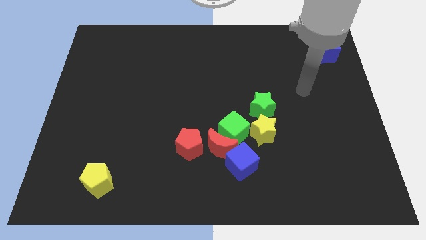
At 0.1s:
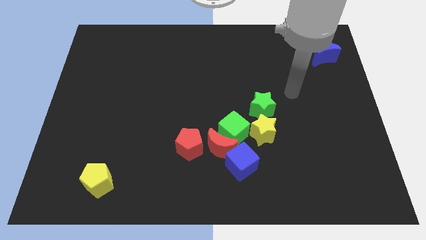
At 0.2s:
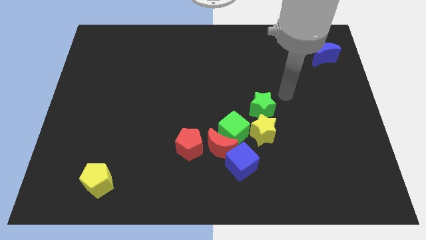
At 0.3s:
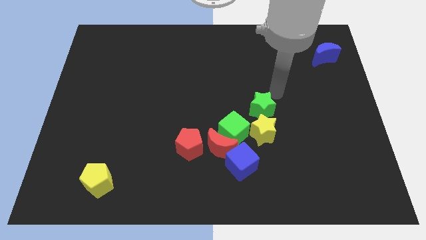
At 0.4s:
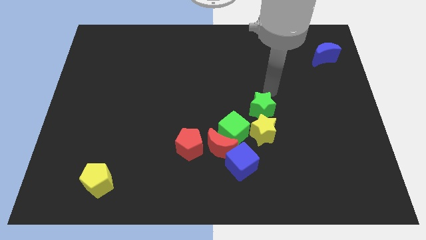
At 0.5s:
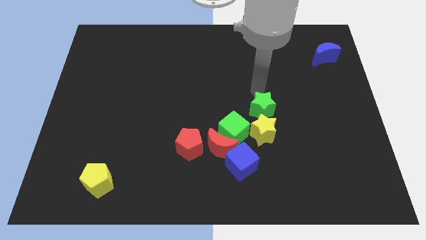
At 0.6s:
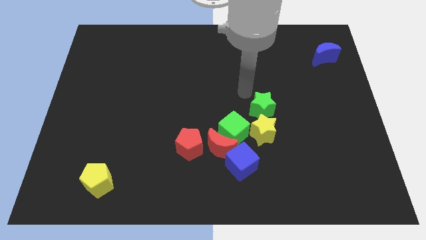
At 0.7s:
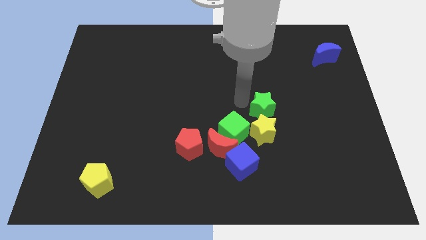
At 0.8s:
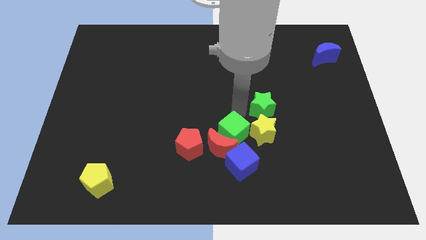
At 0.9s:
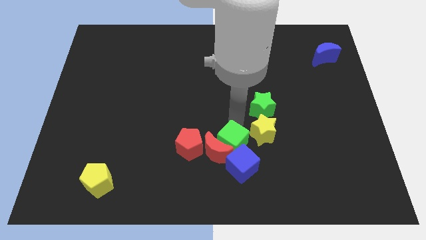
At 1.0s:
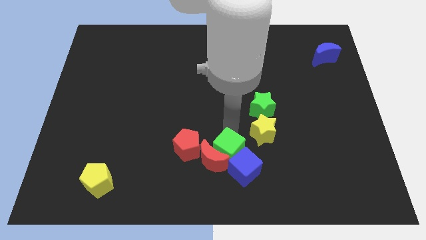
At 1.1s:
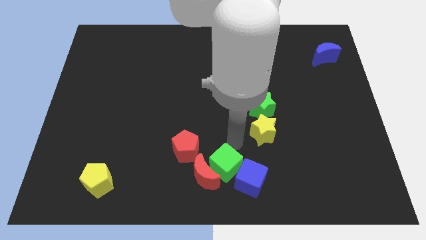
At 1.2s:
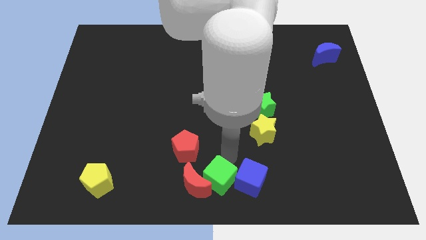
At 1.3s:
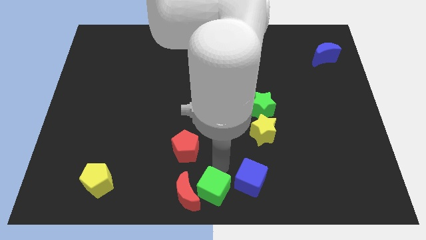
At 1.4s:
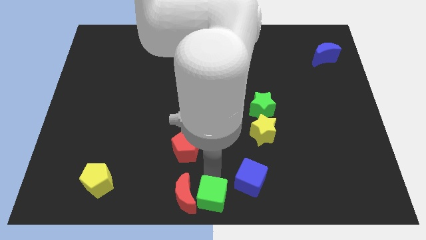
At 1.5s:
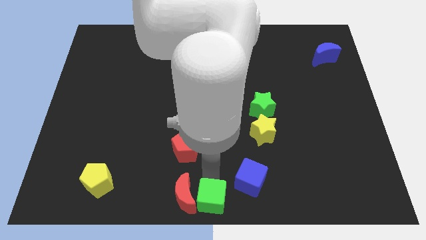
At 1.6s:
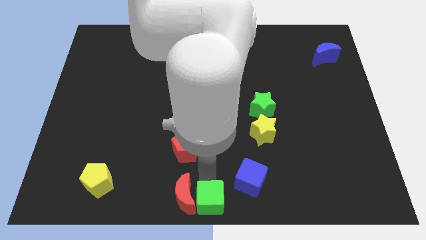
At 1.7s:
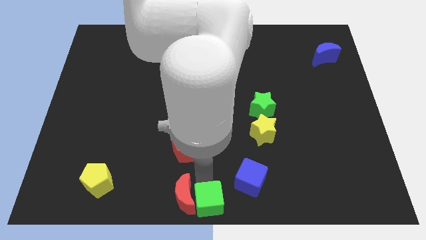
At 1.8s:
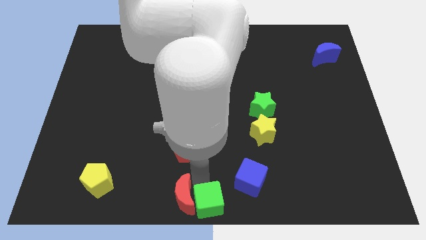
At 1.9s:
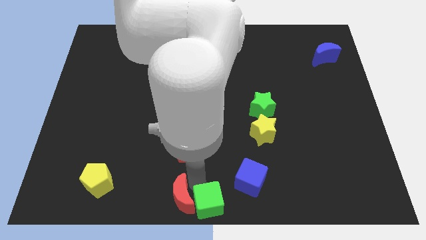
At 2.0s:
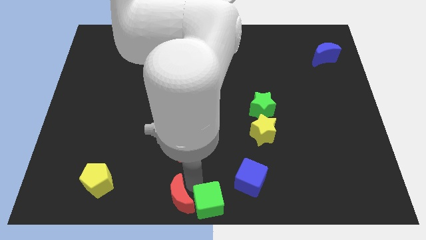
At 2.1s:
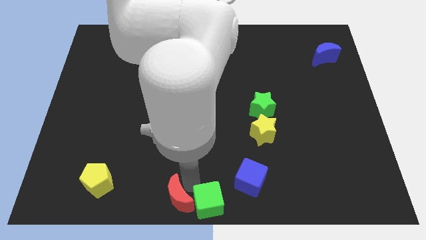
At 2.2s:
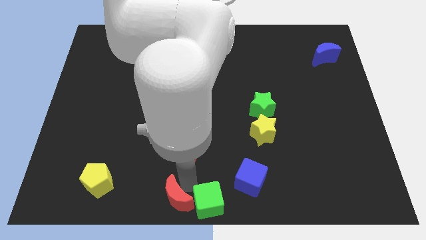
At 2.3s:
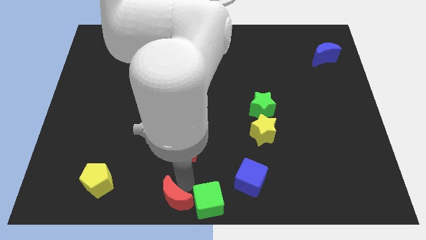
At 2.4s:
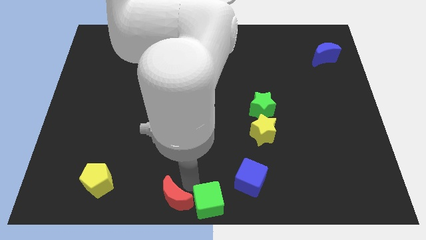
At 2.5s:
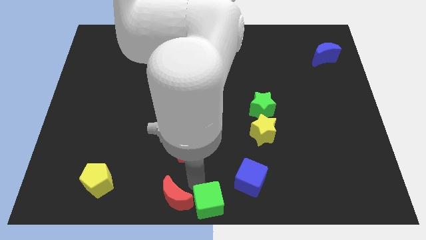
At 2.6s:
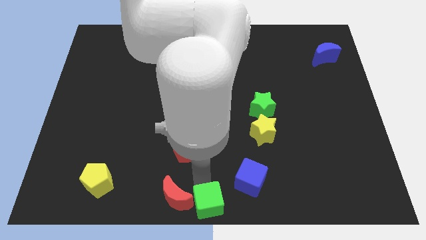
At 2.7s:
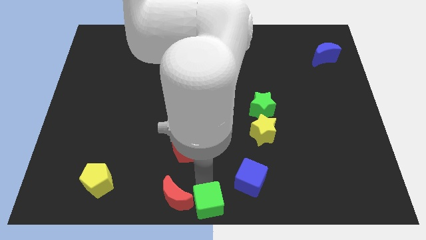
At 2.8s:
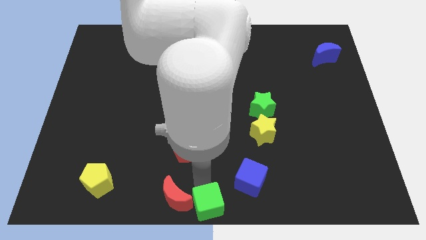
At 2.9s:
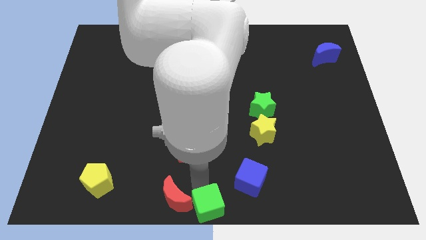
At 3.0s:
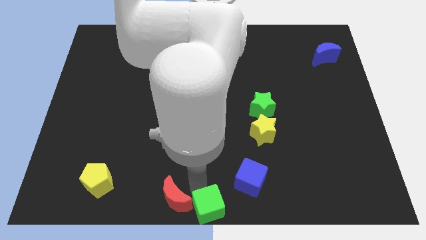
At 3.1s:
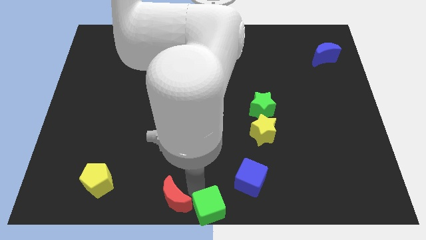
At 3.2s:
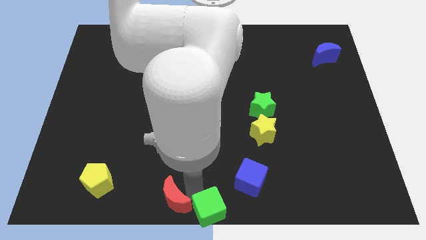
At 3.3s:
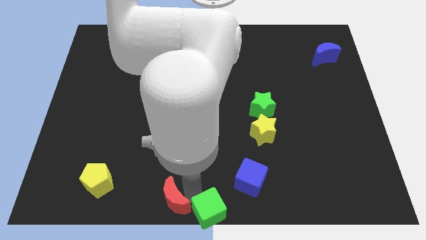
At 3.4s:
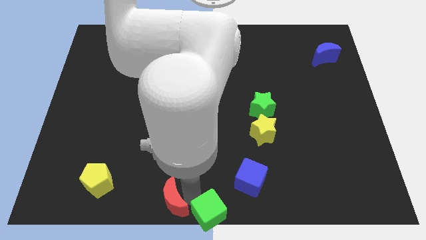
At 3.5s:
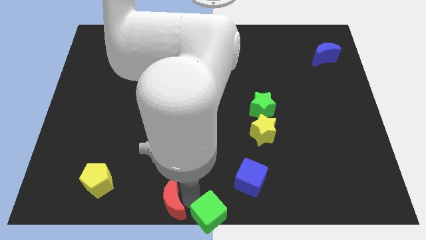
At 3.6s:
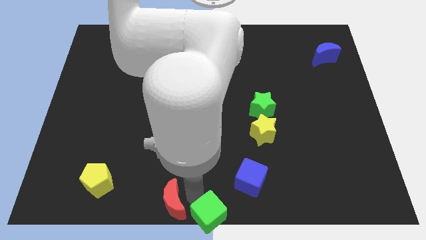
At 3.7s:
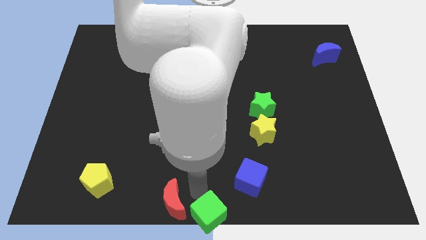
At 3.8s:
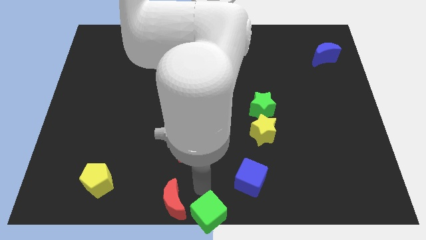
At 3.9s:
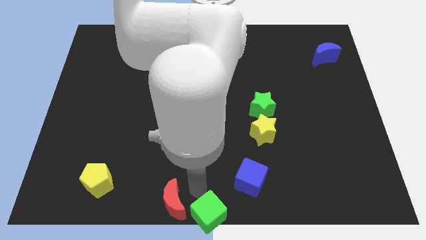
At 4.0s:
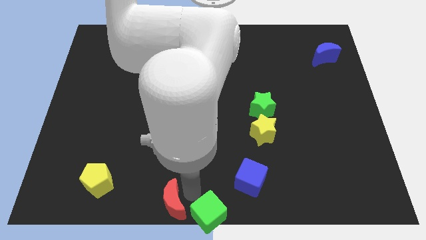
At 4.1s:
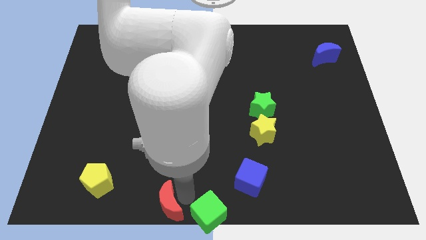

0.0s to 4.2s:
separate the red moon from the green cube, blue cube, and red pentagon

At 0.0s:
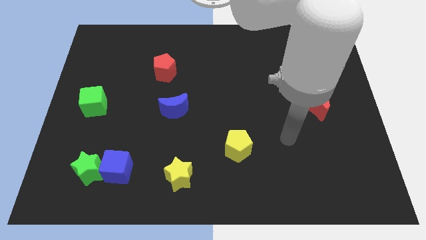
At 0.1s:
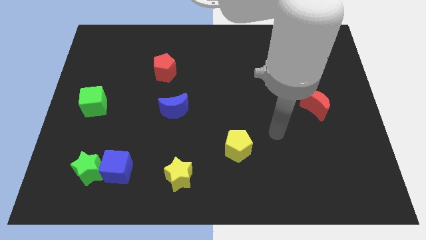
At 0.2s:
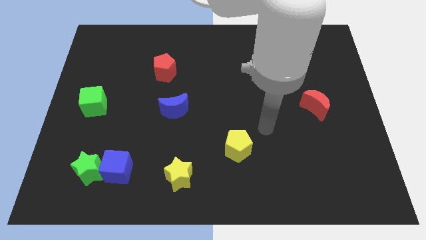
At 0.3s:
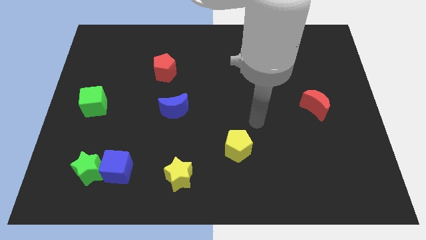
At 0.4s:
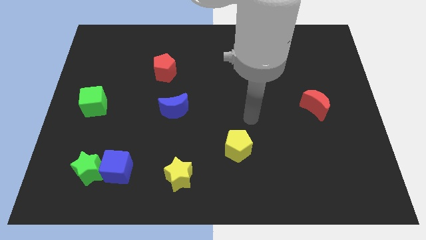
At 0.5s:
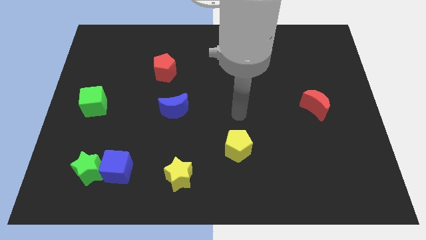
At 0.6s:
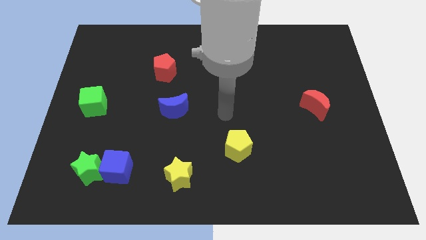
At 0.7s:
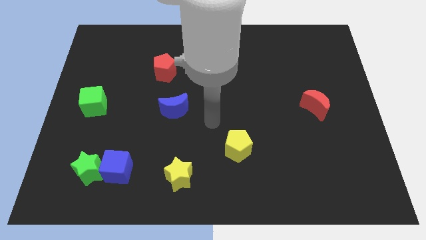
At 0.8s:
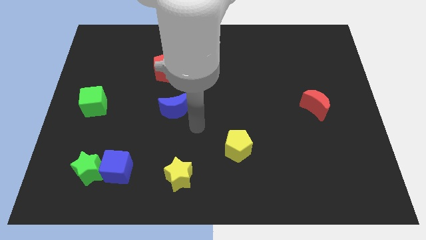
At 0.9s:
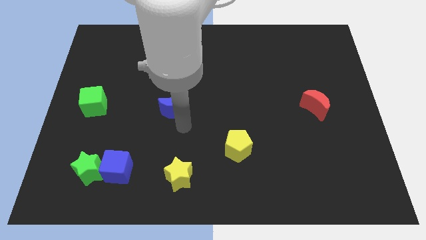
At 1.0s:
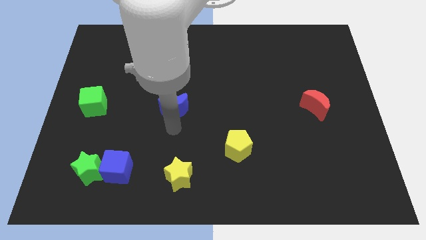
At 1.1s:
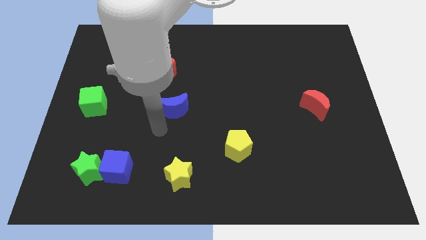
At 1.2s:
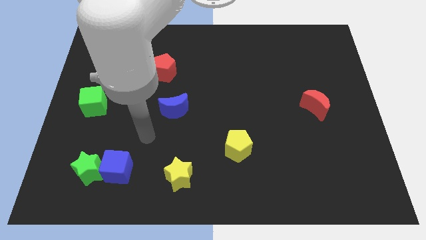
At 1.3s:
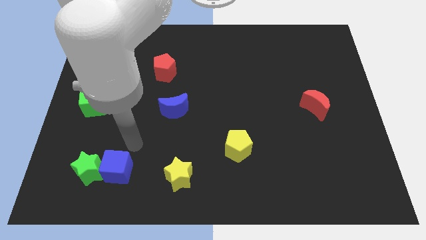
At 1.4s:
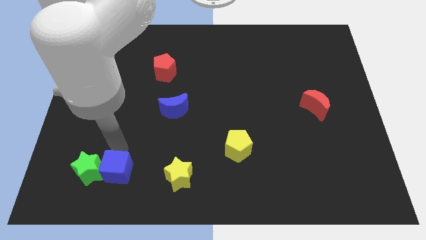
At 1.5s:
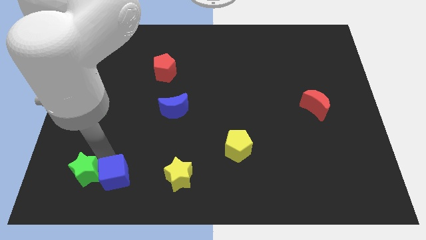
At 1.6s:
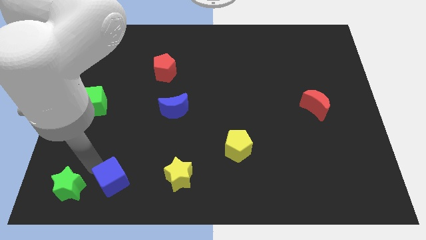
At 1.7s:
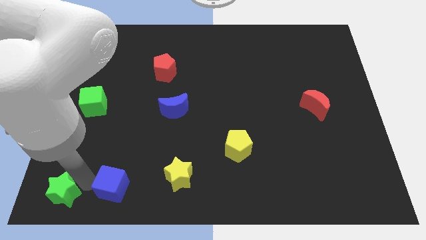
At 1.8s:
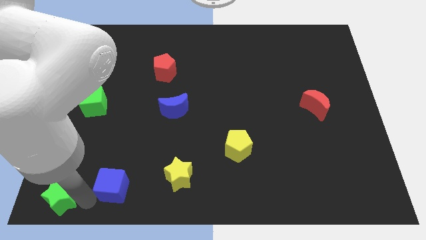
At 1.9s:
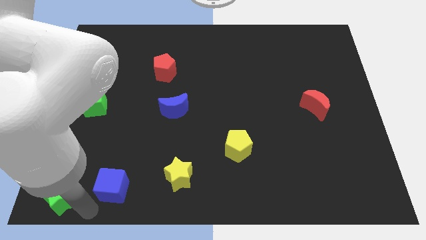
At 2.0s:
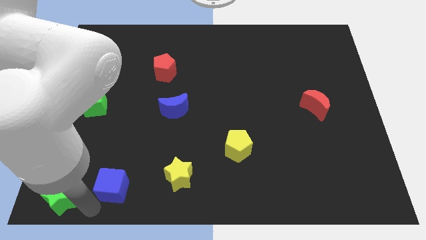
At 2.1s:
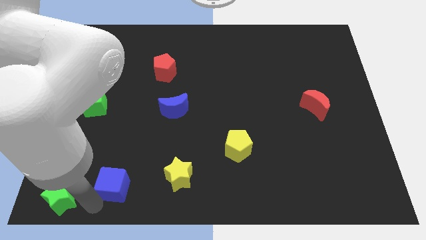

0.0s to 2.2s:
move the blue cube away from the green star

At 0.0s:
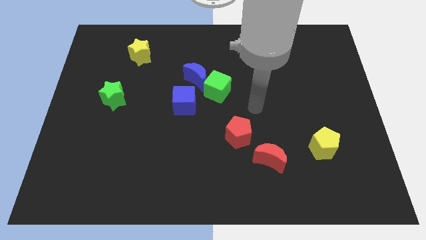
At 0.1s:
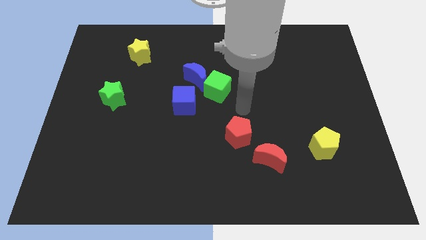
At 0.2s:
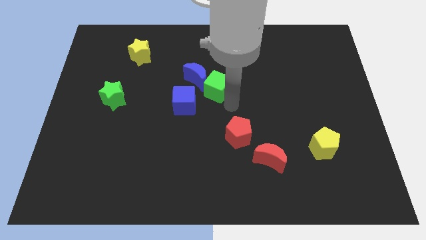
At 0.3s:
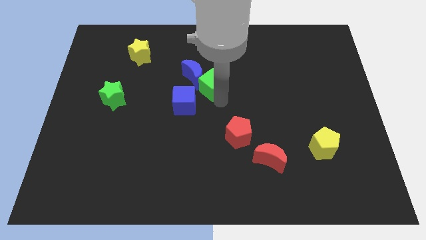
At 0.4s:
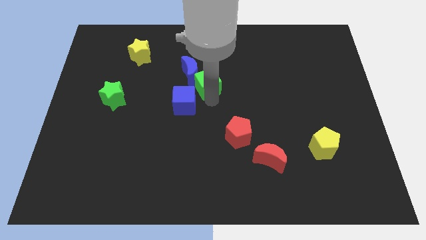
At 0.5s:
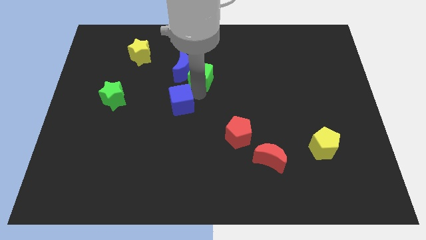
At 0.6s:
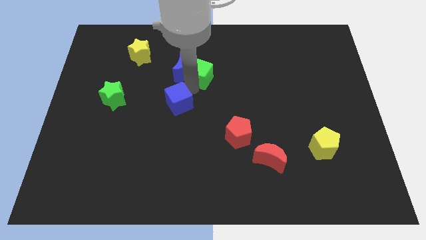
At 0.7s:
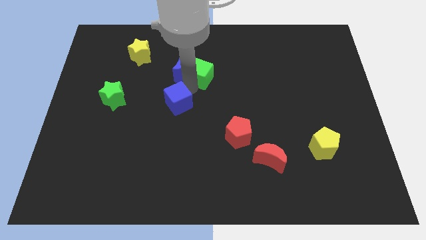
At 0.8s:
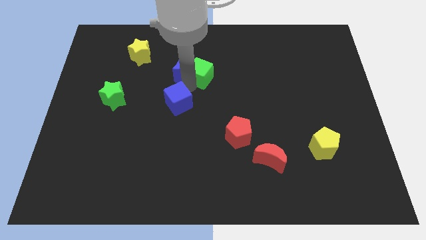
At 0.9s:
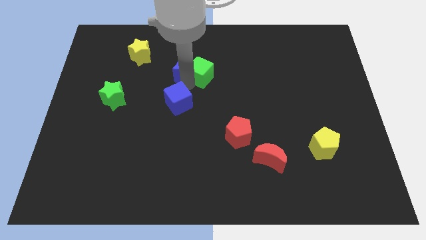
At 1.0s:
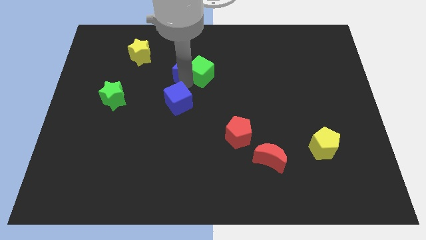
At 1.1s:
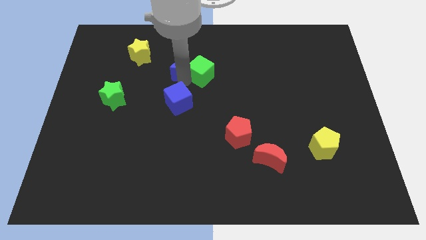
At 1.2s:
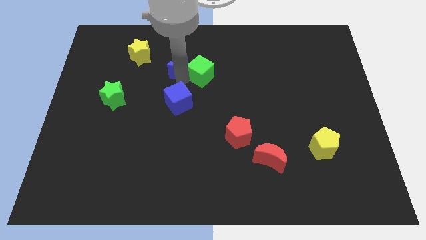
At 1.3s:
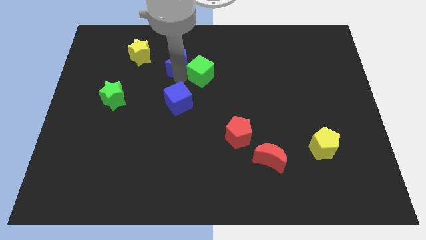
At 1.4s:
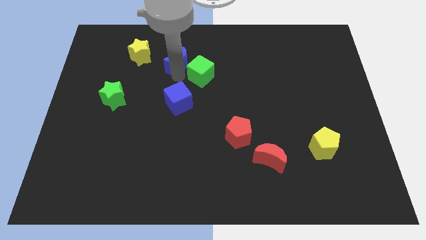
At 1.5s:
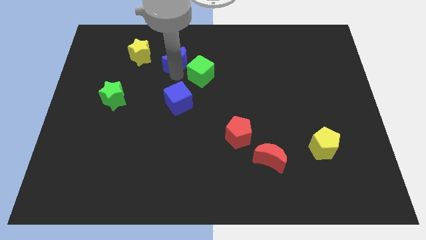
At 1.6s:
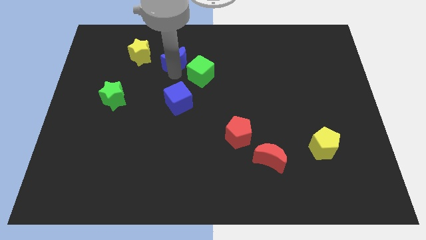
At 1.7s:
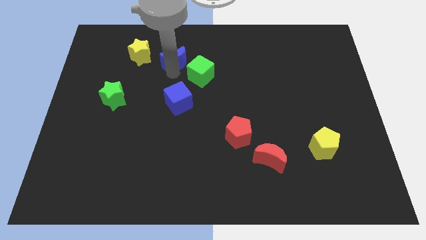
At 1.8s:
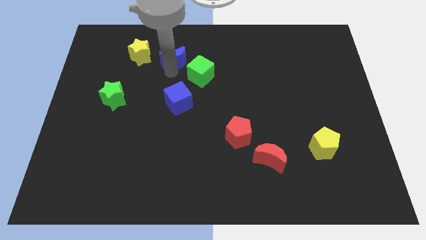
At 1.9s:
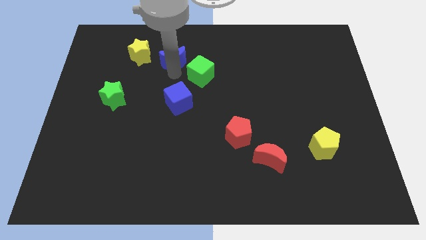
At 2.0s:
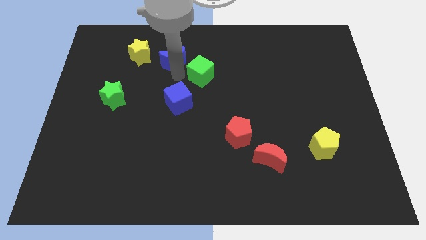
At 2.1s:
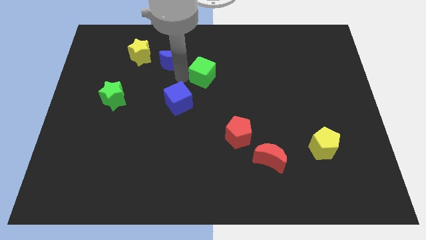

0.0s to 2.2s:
move the blue moon away from the green cube and blue cube

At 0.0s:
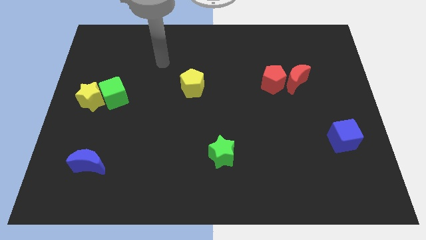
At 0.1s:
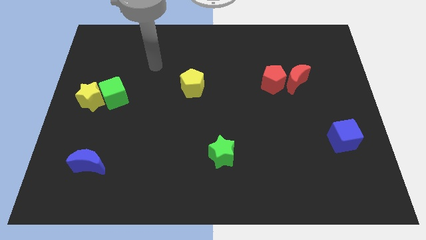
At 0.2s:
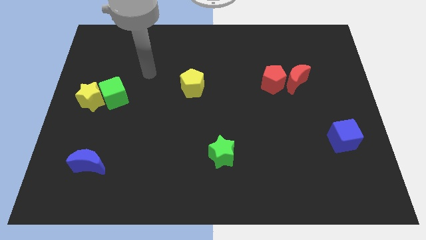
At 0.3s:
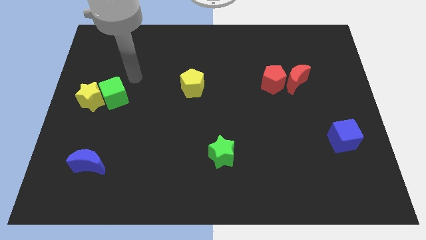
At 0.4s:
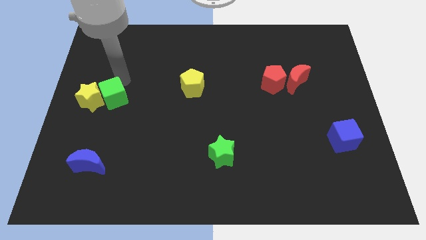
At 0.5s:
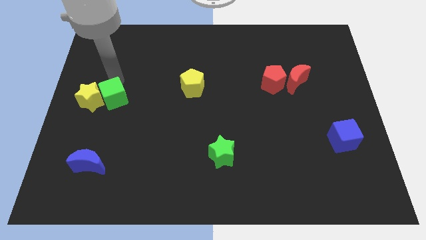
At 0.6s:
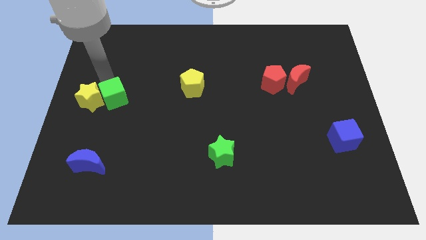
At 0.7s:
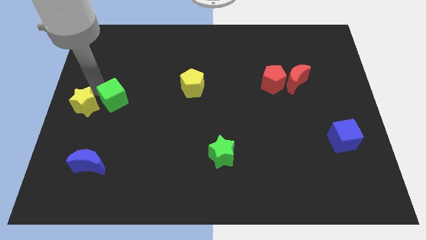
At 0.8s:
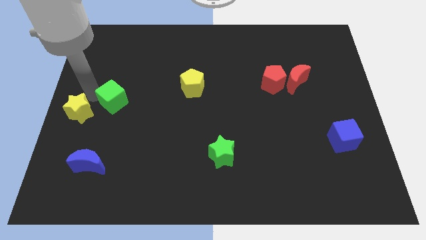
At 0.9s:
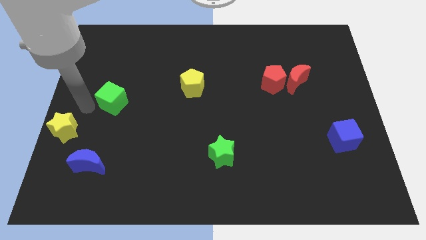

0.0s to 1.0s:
pull the green cube apart from the yellow star
